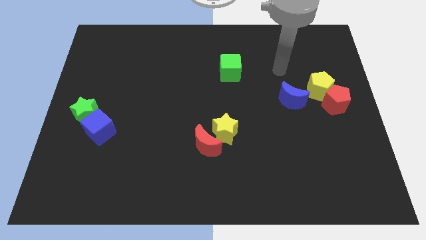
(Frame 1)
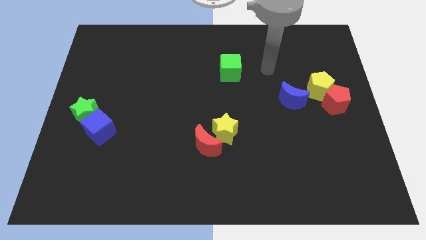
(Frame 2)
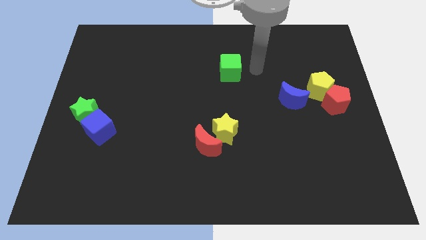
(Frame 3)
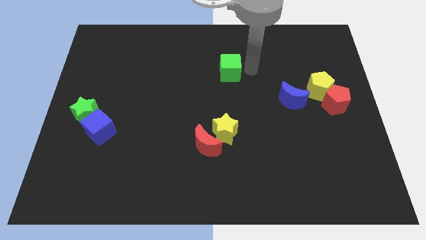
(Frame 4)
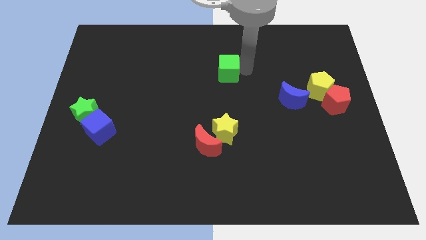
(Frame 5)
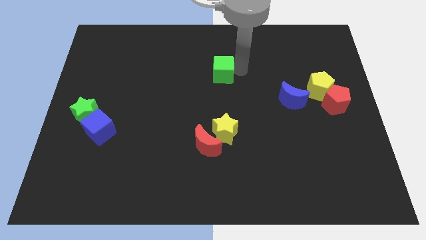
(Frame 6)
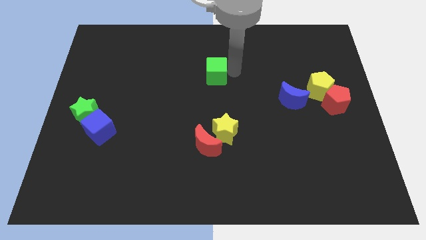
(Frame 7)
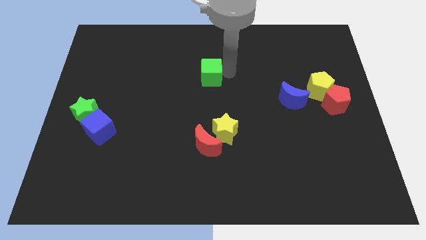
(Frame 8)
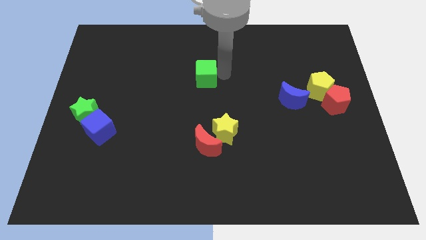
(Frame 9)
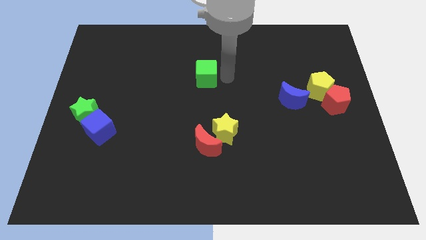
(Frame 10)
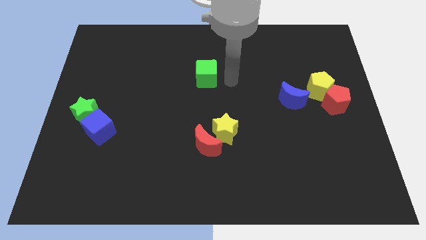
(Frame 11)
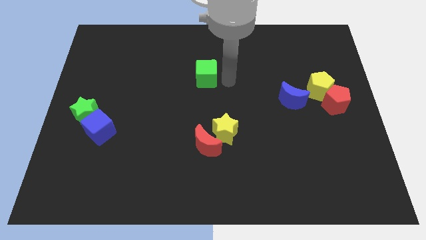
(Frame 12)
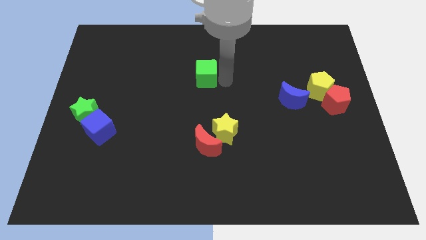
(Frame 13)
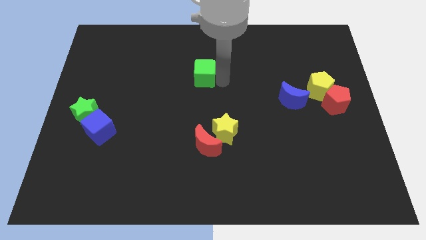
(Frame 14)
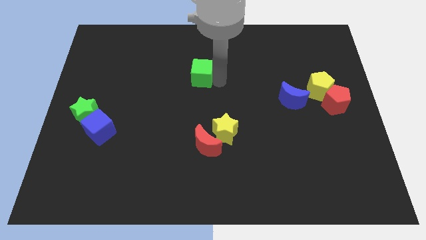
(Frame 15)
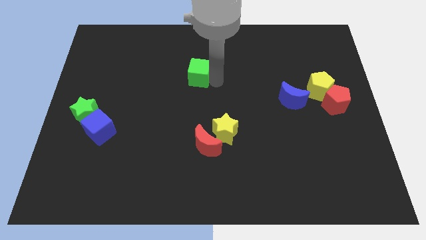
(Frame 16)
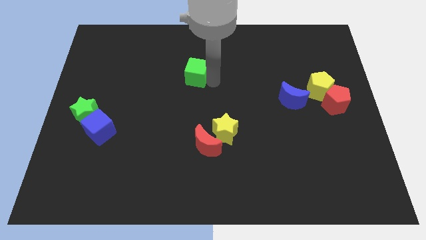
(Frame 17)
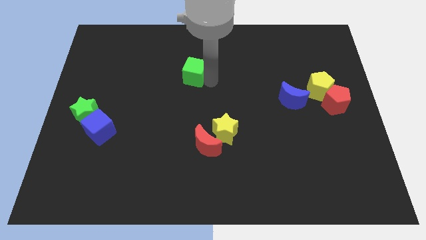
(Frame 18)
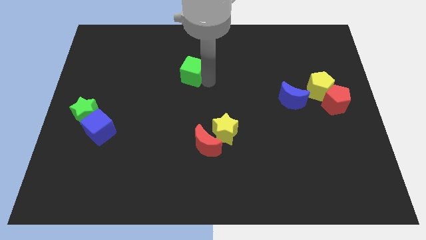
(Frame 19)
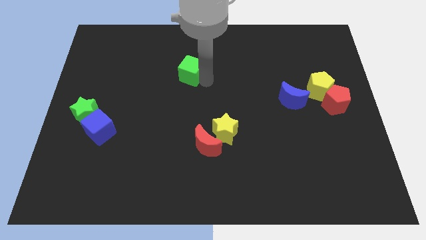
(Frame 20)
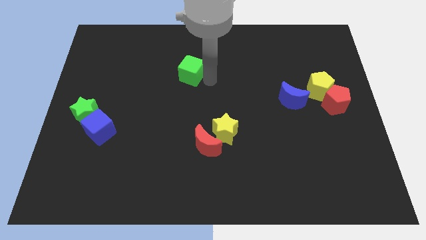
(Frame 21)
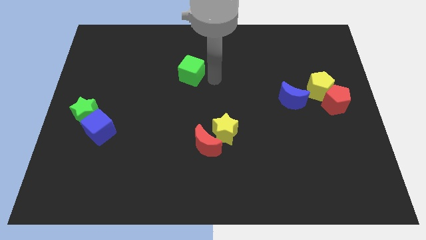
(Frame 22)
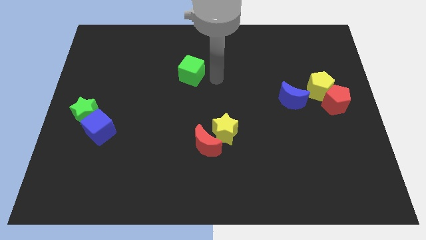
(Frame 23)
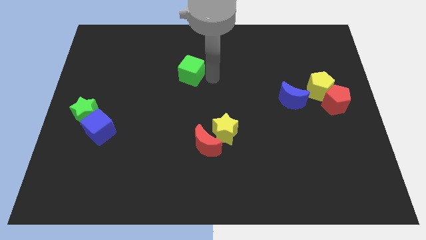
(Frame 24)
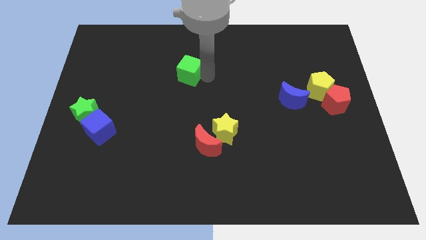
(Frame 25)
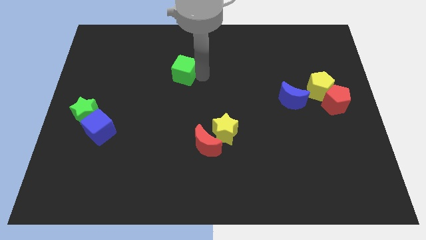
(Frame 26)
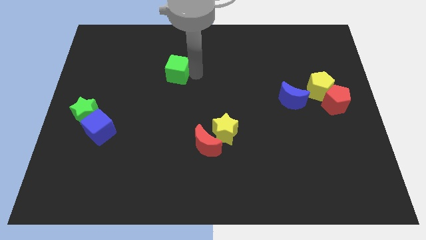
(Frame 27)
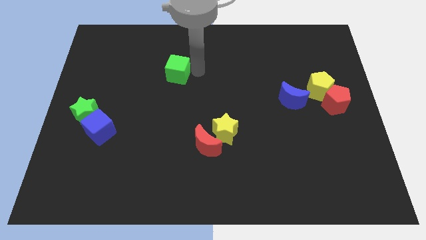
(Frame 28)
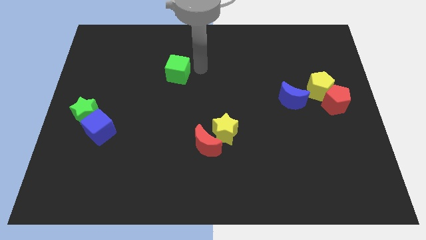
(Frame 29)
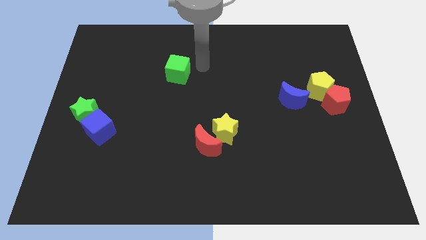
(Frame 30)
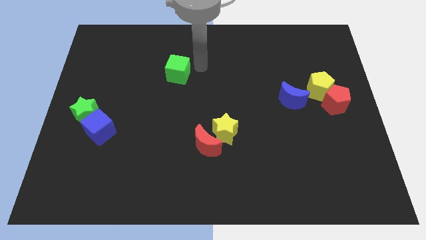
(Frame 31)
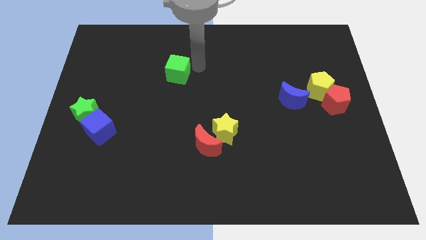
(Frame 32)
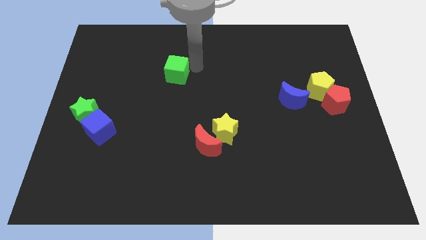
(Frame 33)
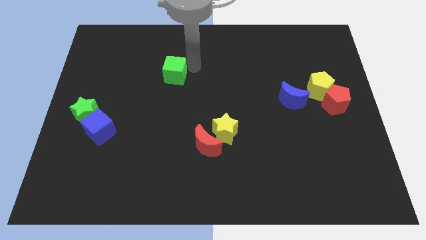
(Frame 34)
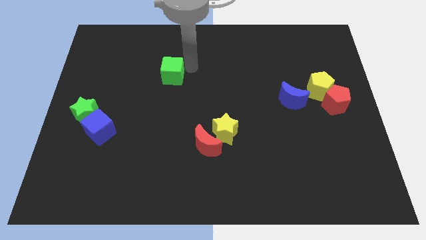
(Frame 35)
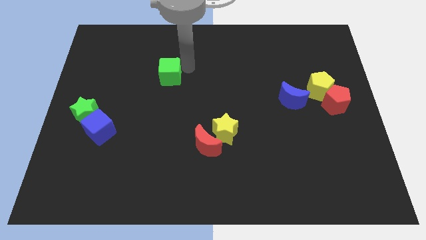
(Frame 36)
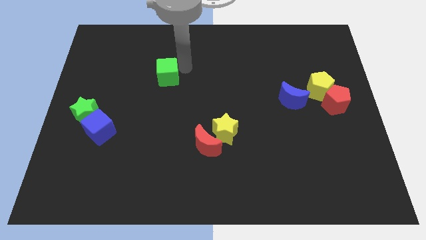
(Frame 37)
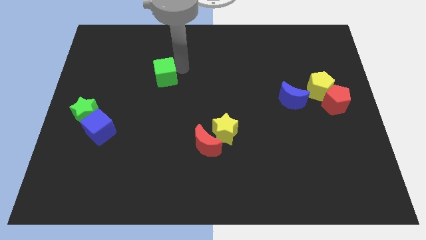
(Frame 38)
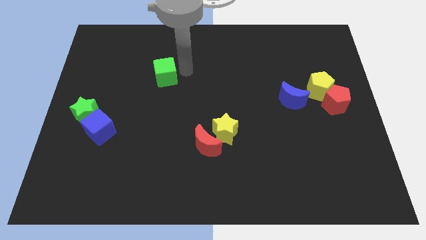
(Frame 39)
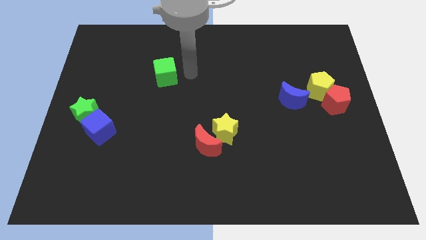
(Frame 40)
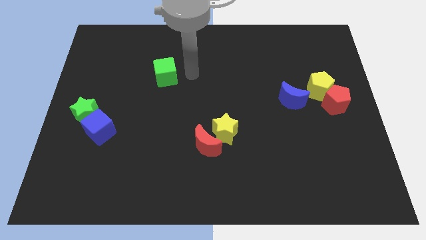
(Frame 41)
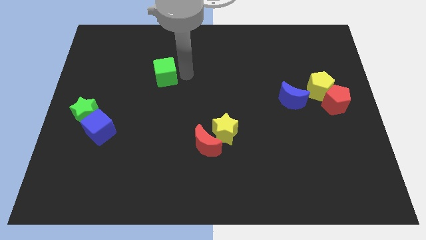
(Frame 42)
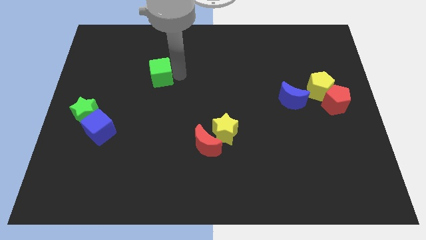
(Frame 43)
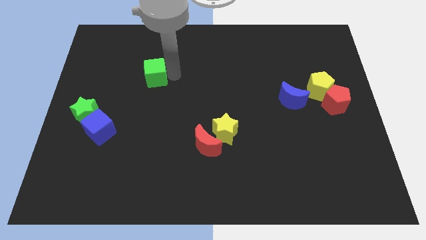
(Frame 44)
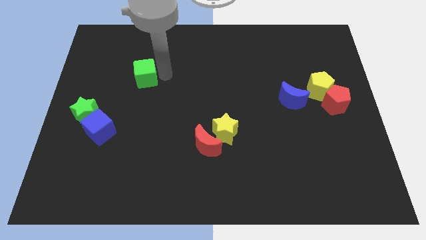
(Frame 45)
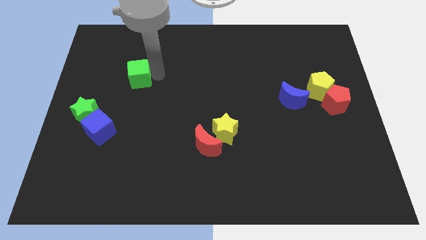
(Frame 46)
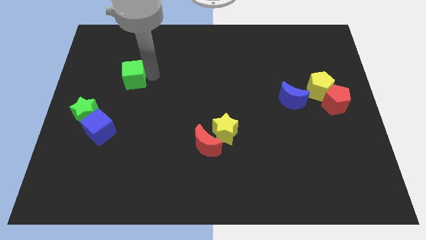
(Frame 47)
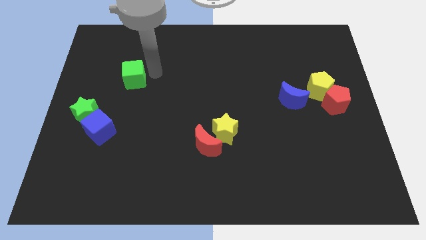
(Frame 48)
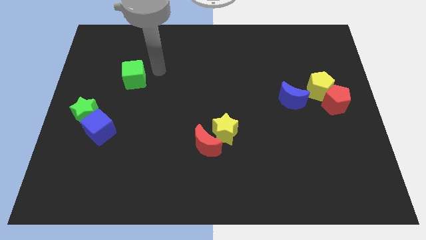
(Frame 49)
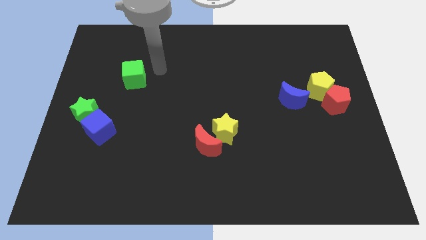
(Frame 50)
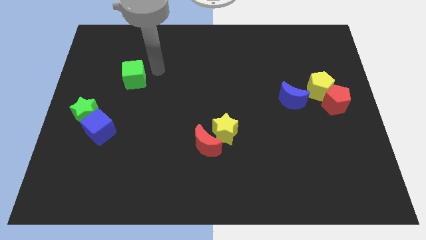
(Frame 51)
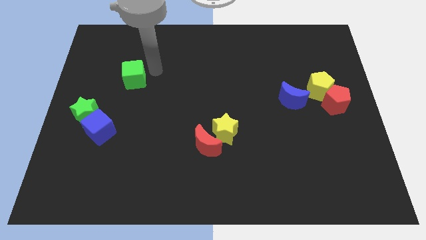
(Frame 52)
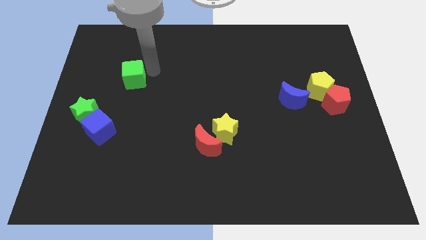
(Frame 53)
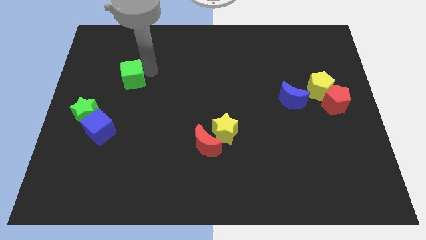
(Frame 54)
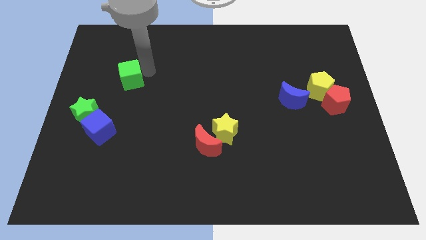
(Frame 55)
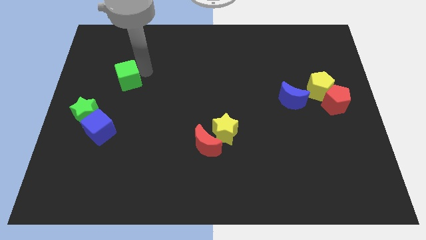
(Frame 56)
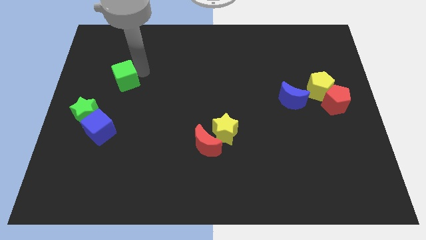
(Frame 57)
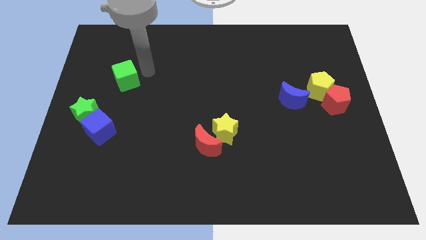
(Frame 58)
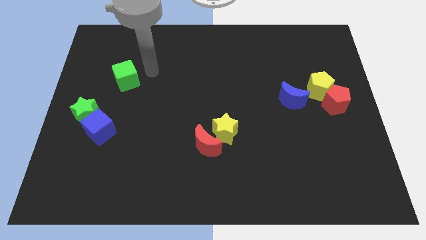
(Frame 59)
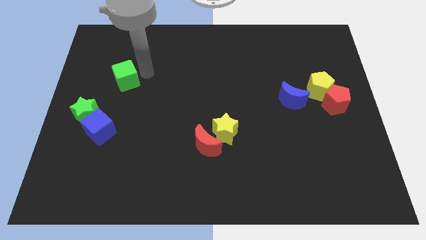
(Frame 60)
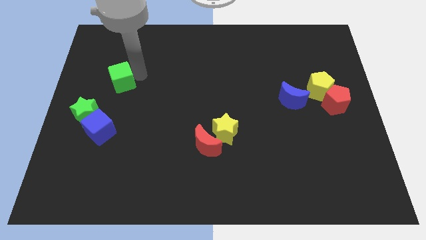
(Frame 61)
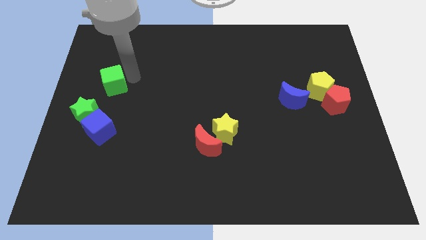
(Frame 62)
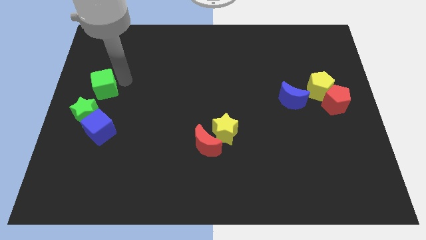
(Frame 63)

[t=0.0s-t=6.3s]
move the green cube to the center left

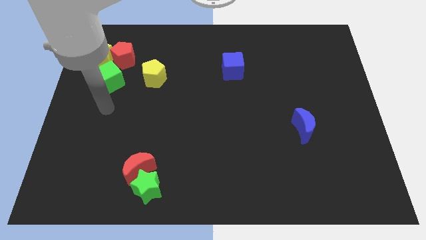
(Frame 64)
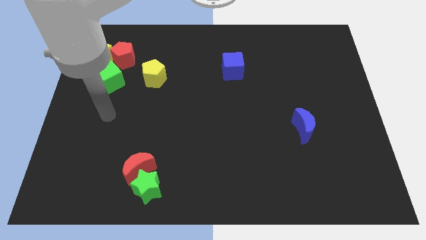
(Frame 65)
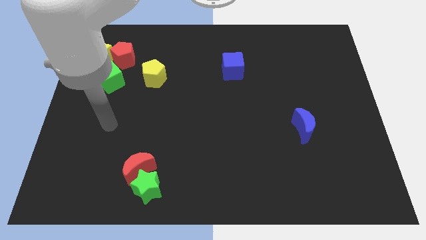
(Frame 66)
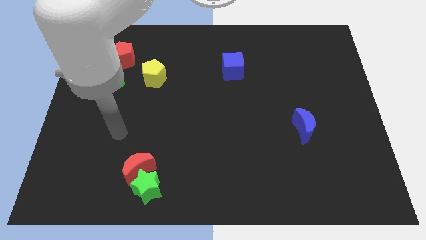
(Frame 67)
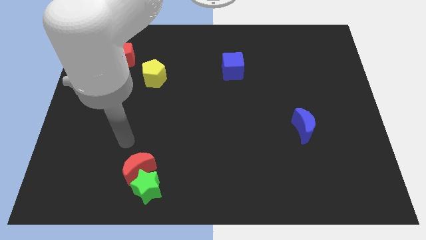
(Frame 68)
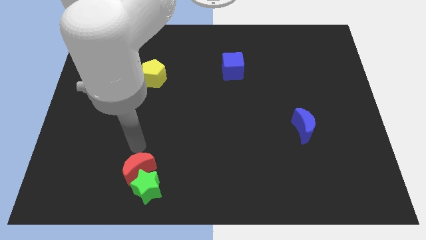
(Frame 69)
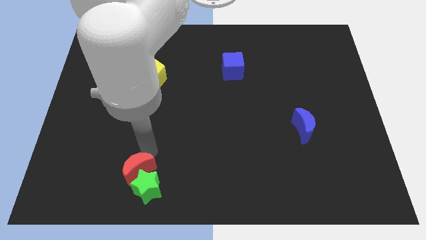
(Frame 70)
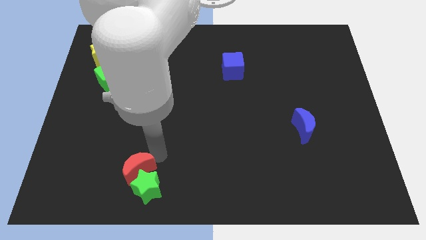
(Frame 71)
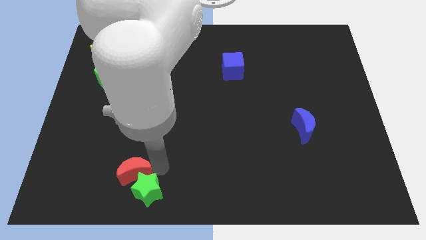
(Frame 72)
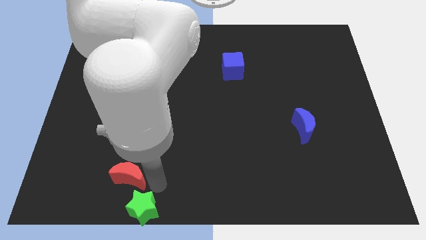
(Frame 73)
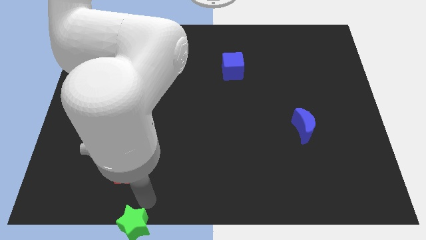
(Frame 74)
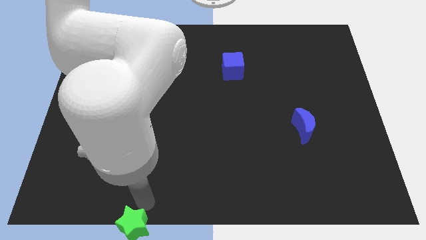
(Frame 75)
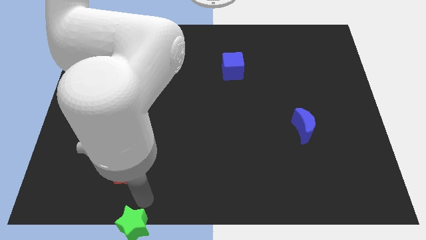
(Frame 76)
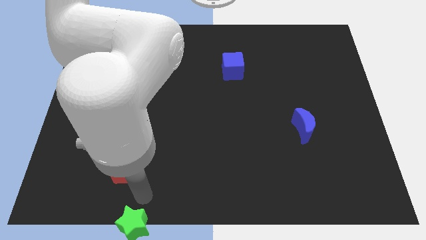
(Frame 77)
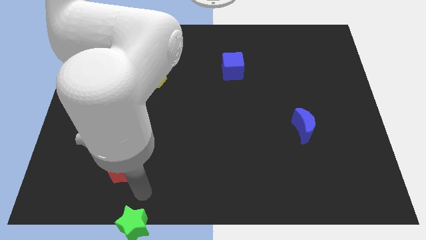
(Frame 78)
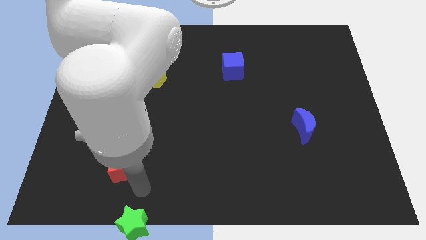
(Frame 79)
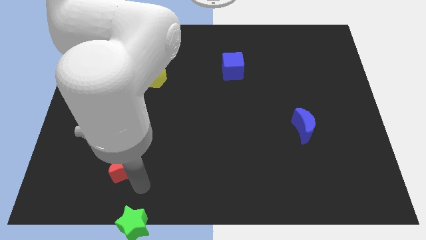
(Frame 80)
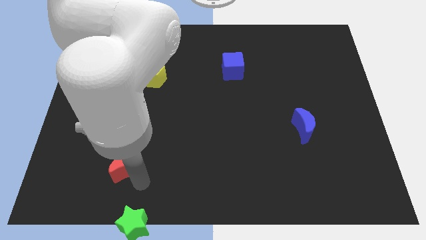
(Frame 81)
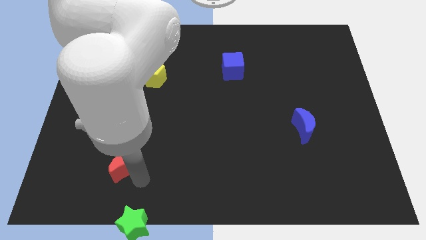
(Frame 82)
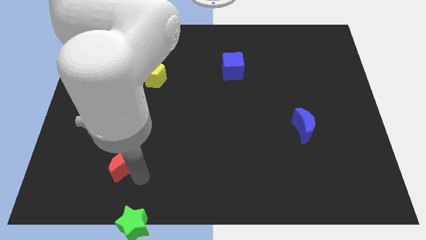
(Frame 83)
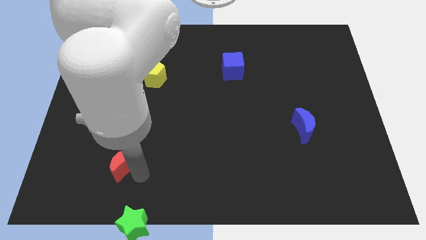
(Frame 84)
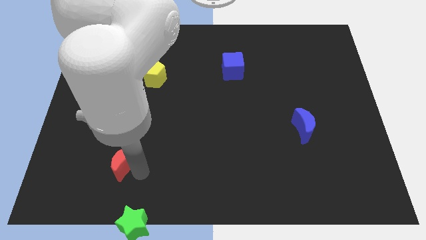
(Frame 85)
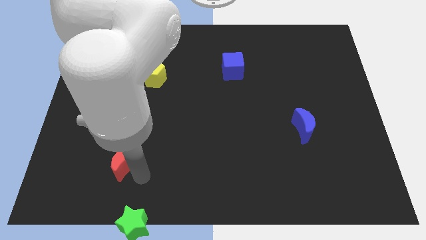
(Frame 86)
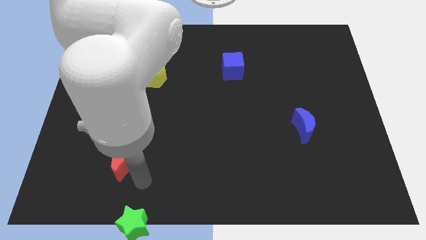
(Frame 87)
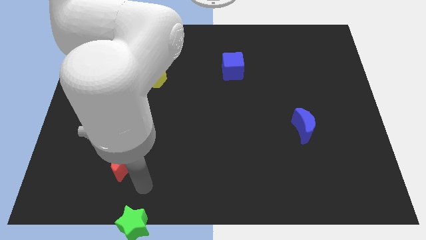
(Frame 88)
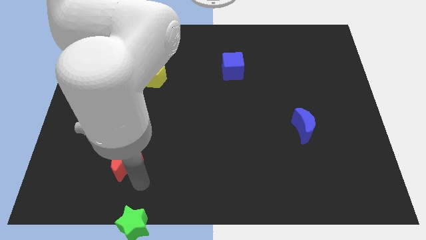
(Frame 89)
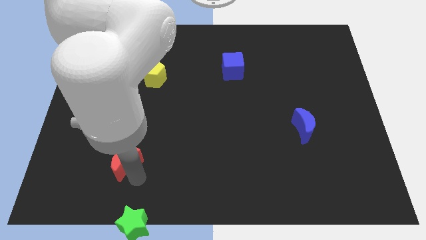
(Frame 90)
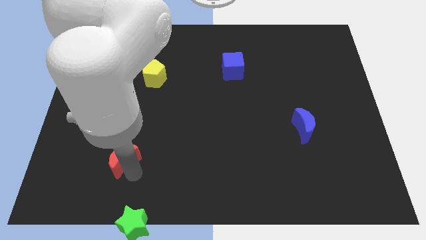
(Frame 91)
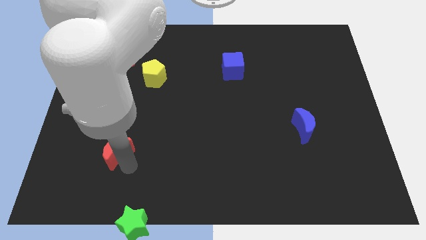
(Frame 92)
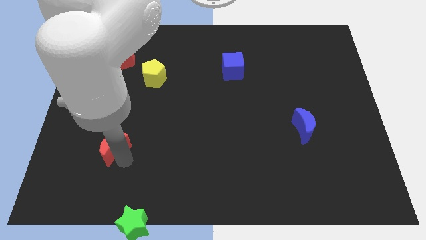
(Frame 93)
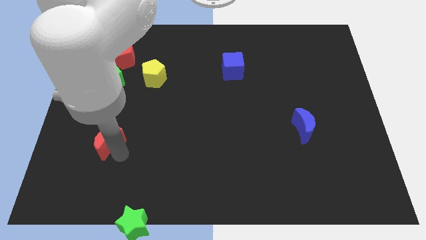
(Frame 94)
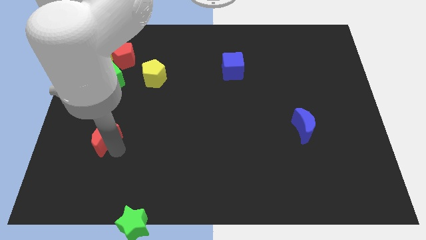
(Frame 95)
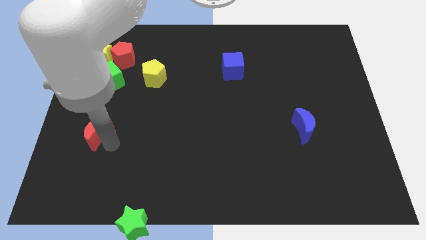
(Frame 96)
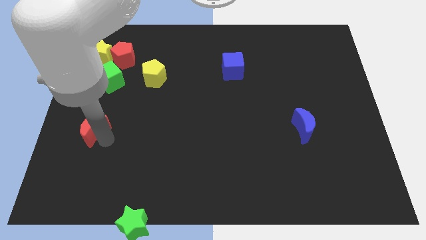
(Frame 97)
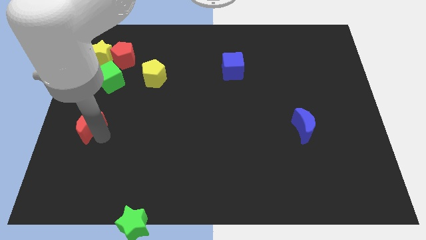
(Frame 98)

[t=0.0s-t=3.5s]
slide the red moon to the center left
